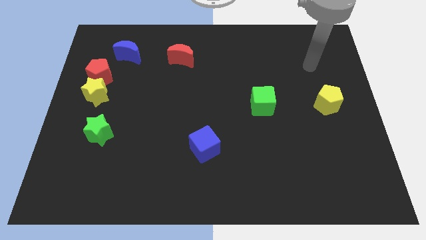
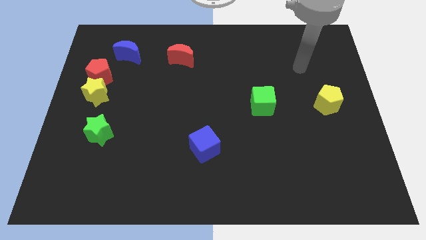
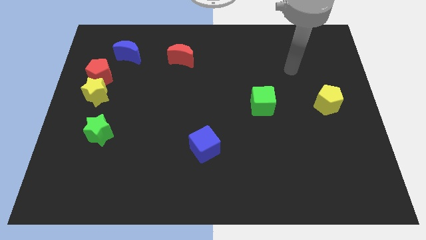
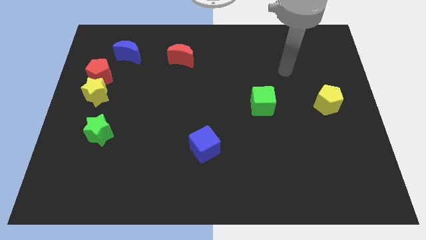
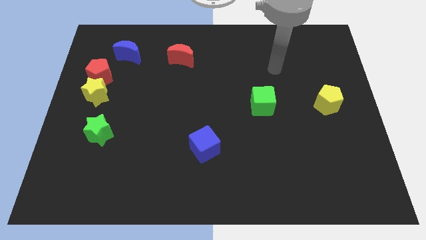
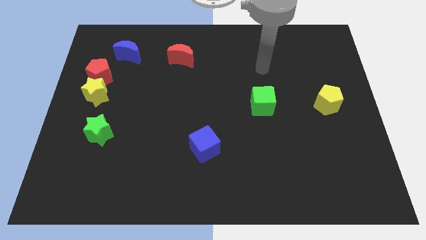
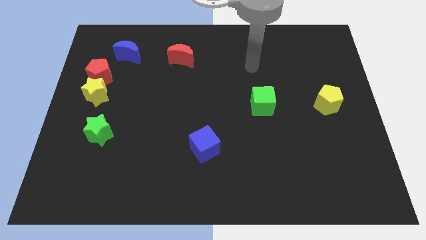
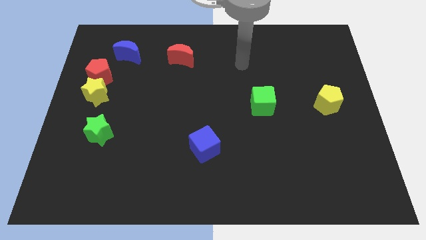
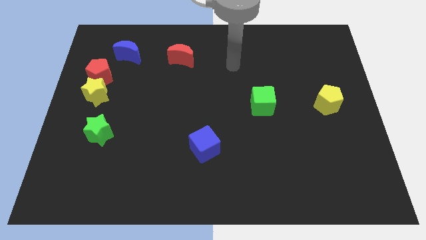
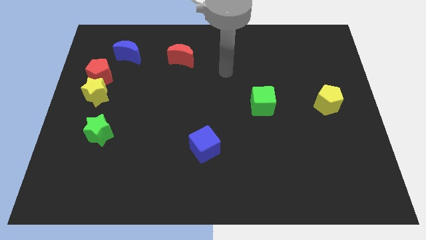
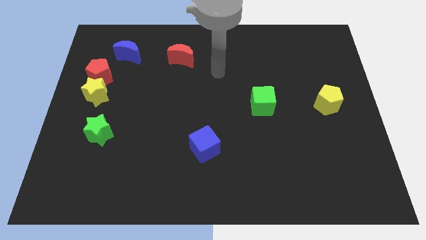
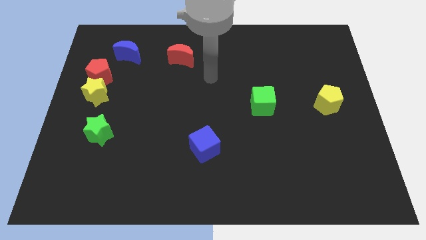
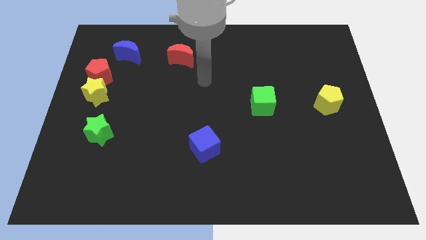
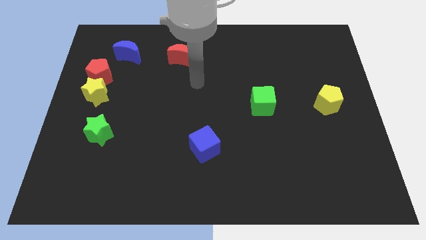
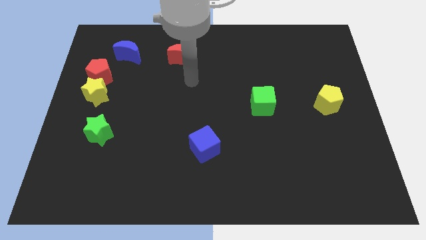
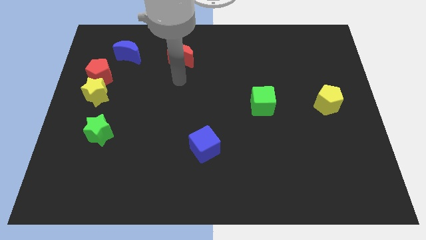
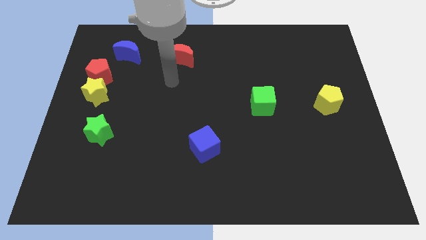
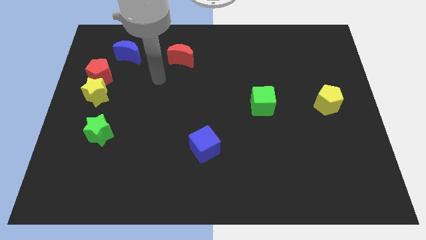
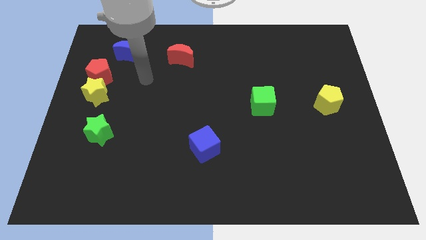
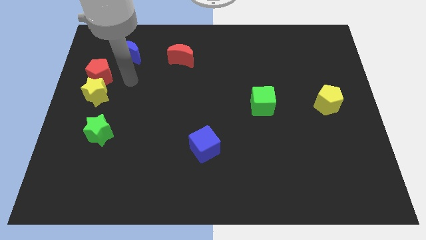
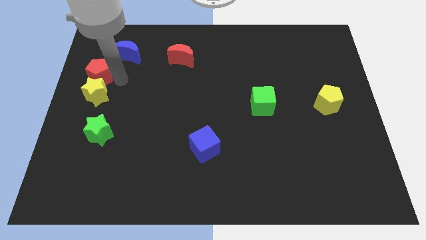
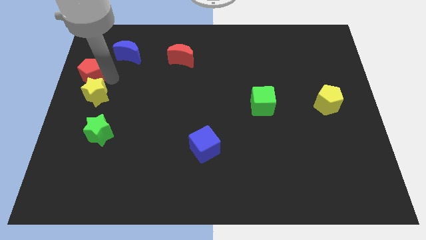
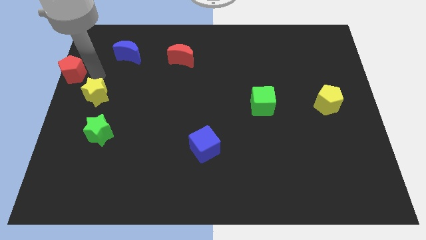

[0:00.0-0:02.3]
move the yellow star away from the red pentagon

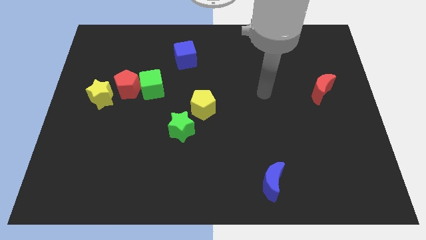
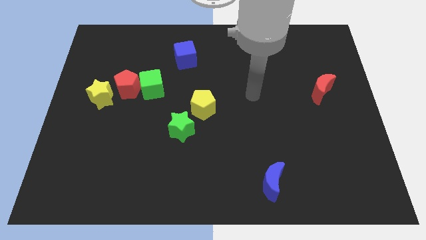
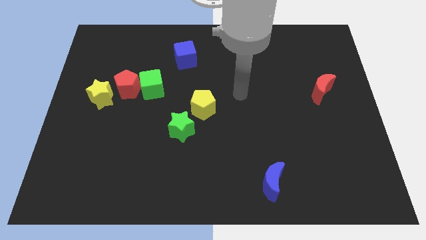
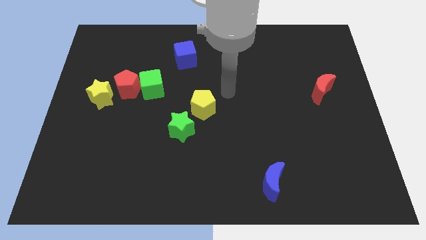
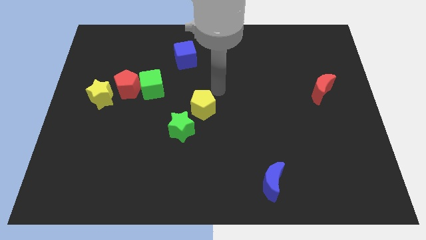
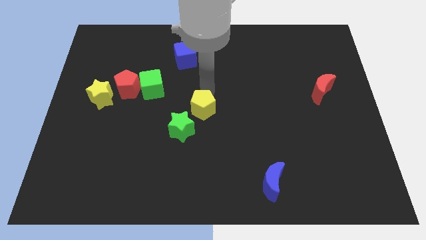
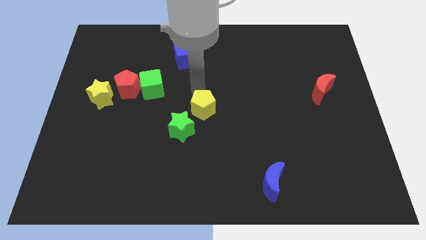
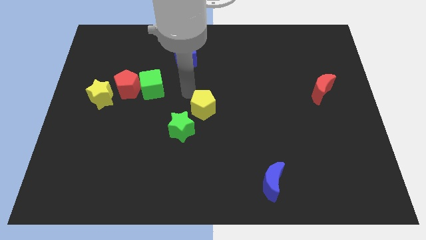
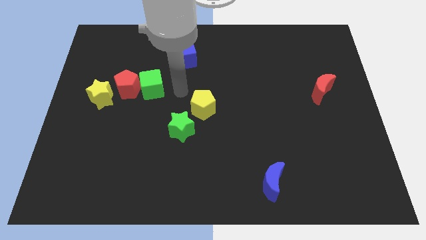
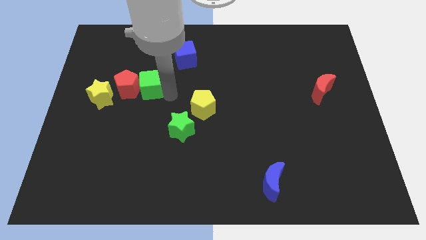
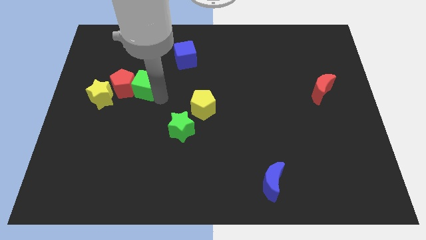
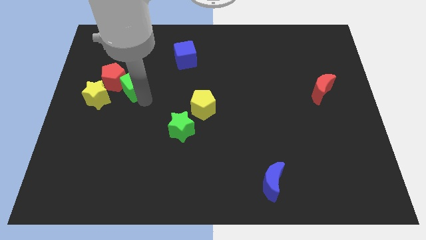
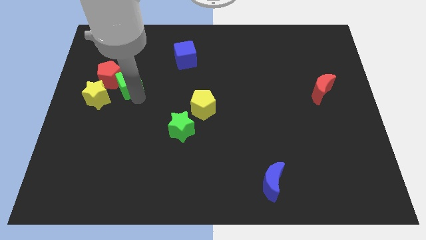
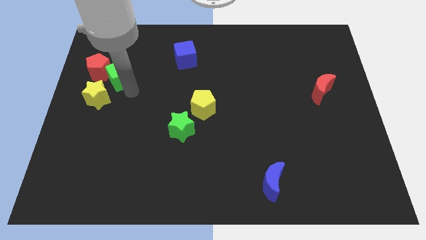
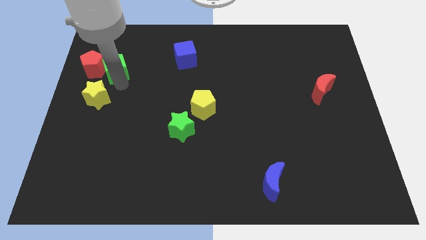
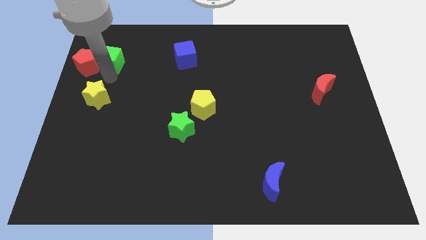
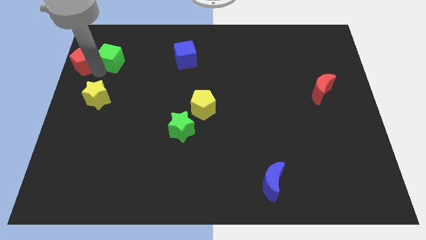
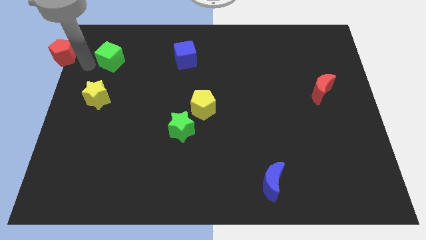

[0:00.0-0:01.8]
pull the green cube apart from the red pentagon

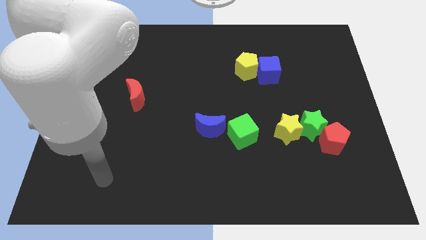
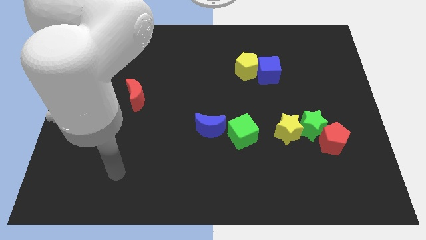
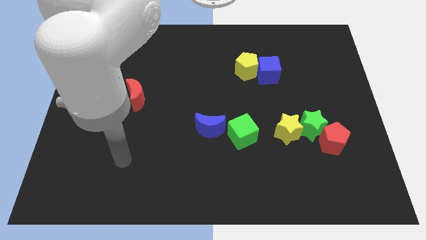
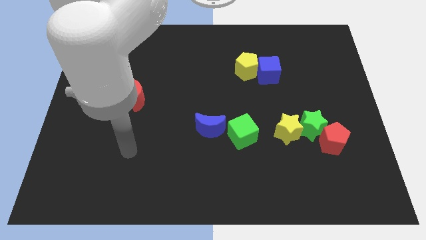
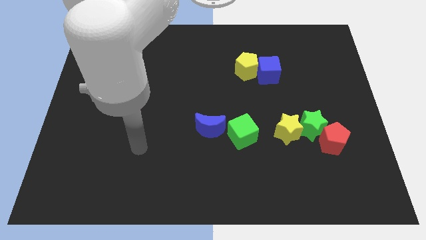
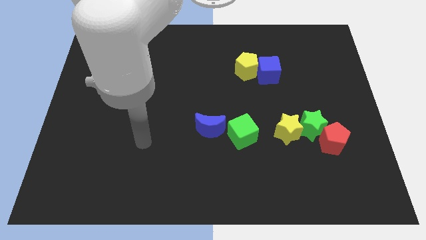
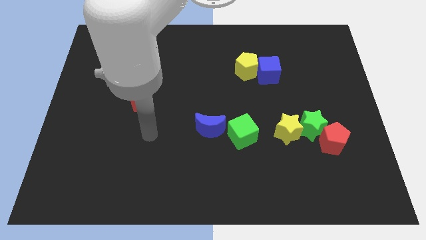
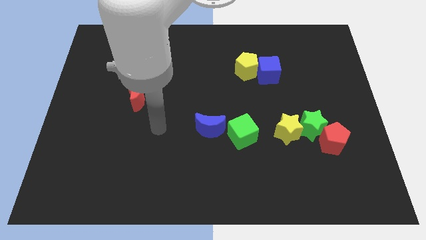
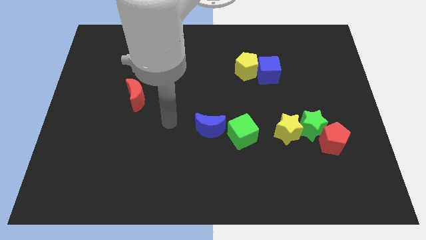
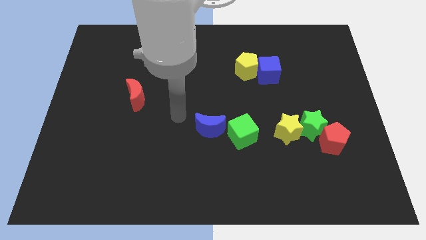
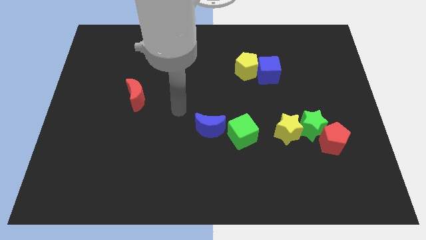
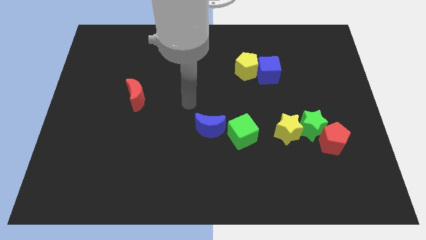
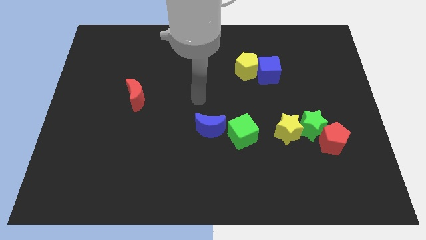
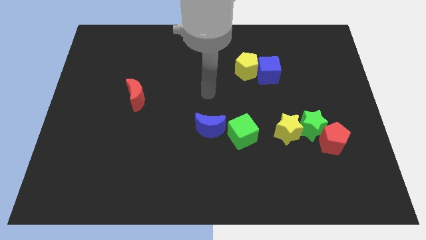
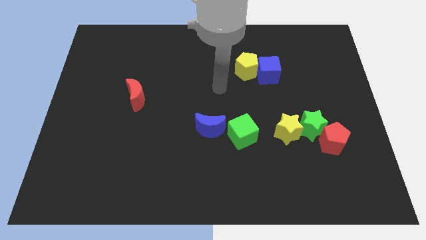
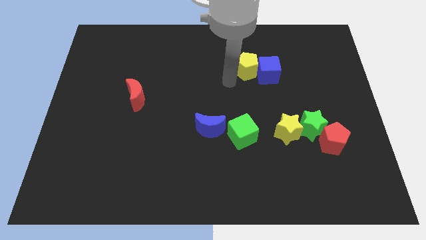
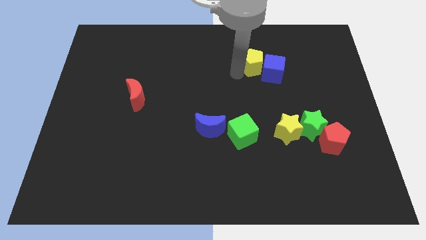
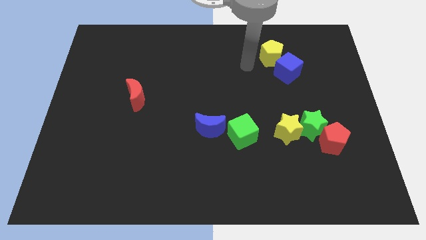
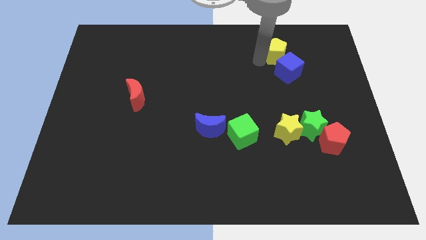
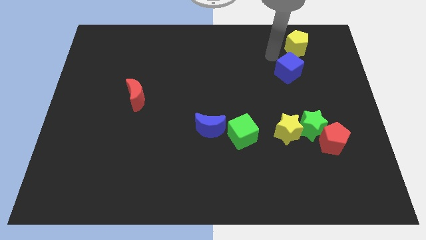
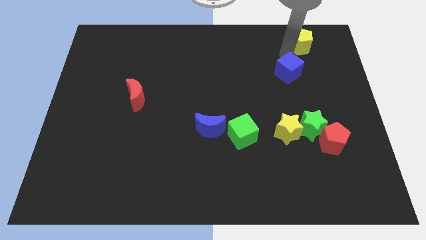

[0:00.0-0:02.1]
move the blue cube away from the yellow pentagon

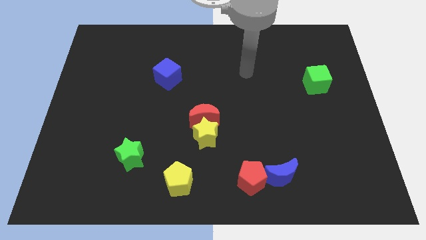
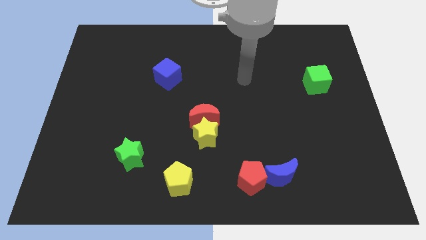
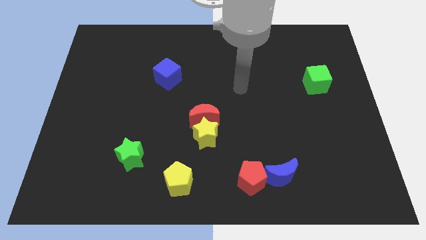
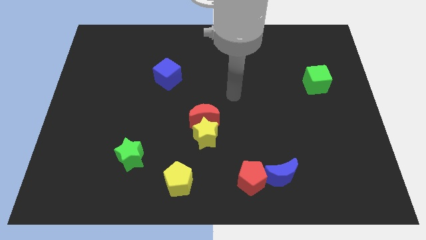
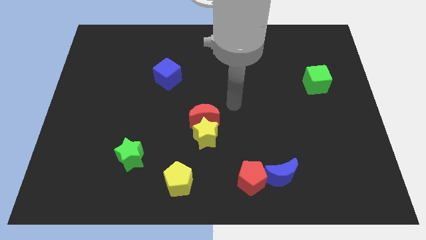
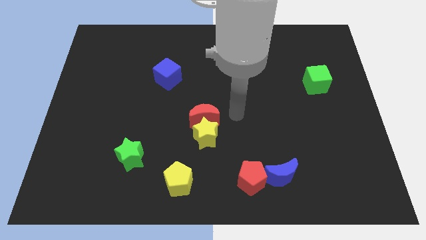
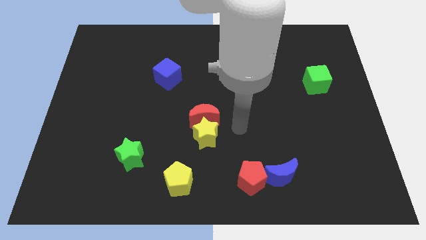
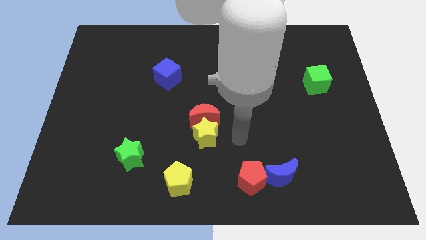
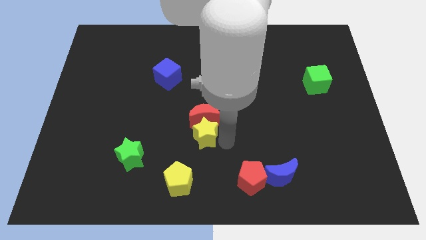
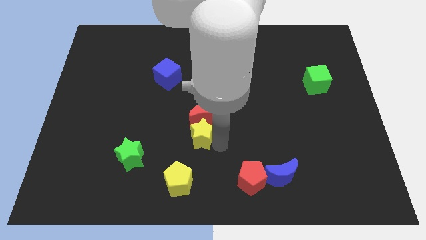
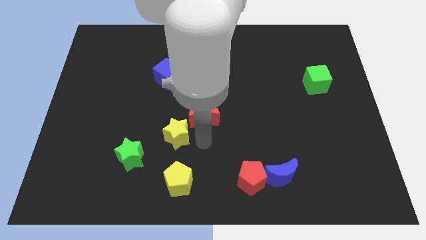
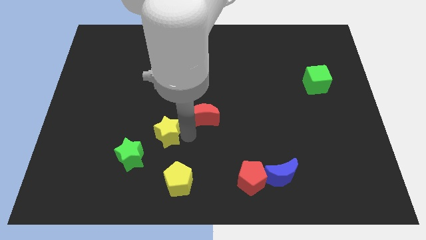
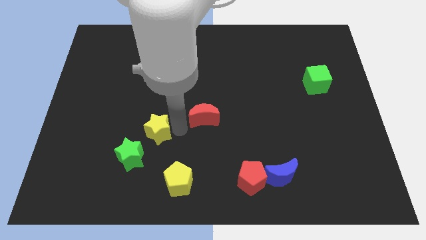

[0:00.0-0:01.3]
separate the red moon from the yellow star

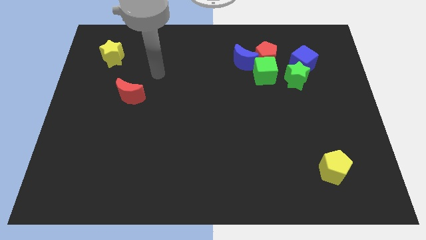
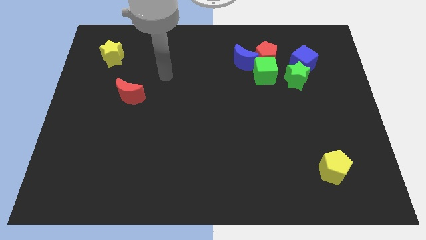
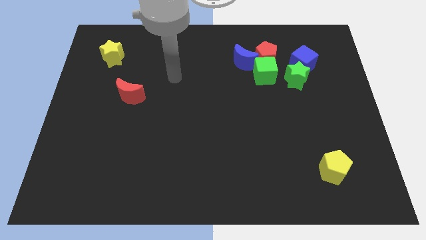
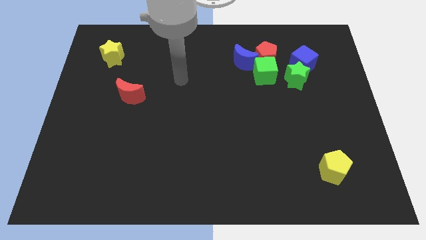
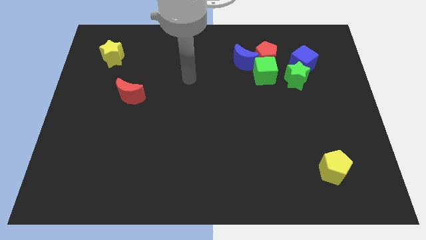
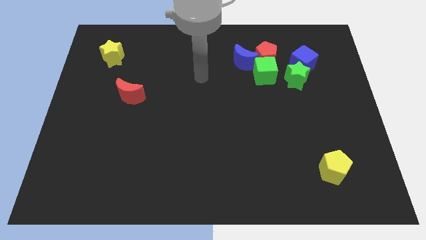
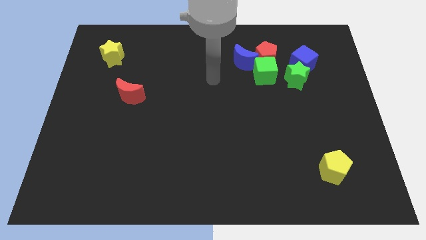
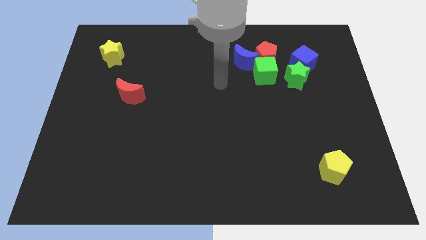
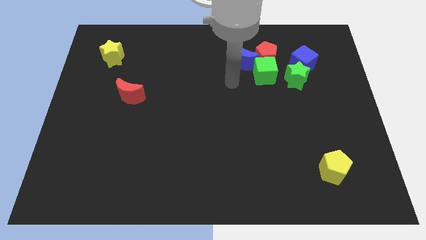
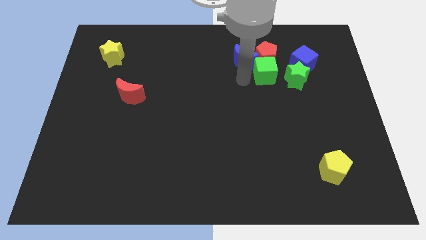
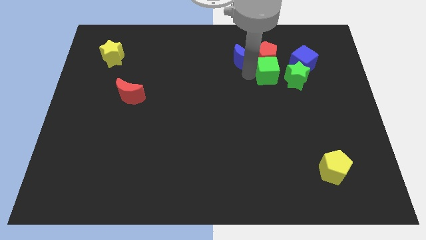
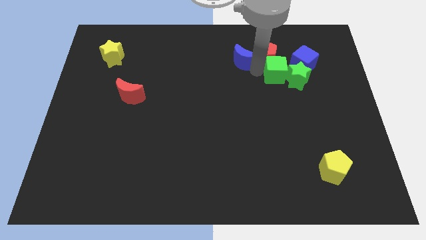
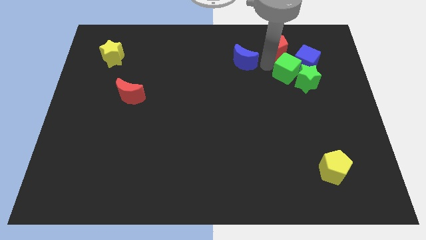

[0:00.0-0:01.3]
separate the blue moon from the red pentagon and green cube

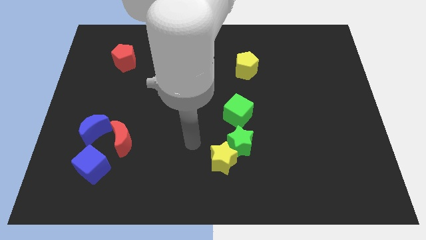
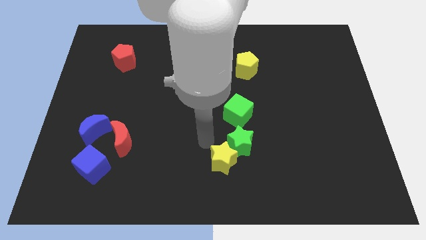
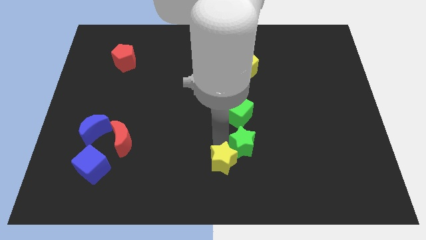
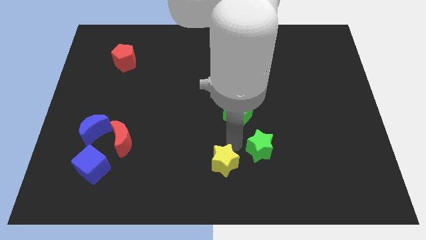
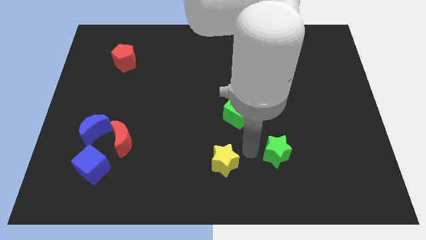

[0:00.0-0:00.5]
pull the yellow star apart from the green star

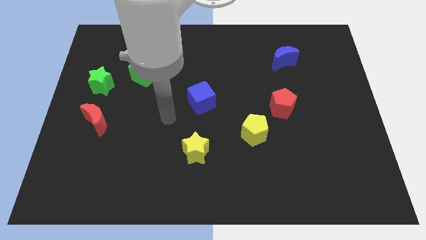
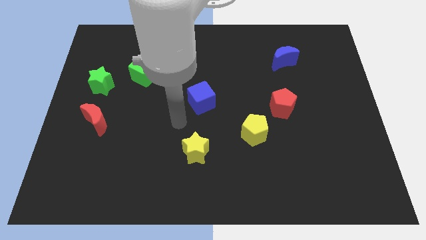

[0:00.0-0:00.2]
separate the red pentagon from the yellow pentagon
